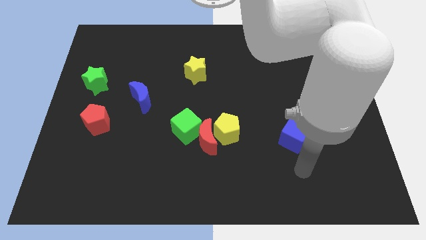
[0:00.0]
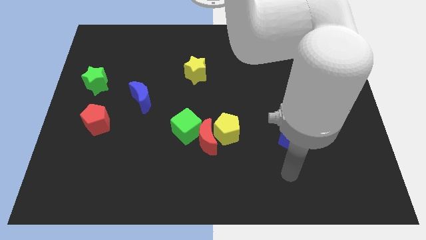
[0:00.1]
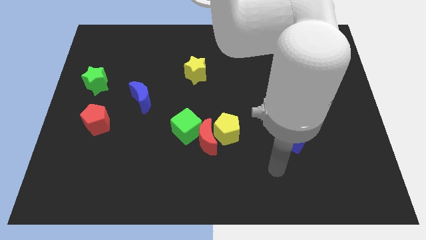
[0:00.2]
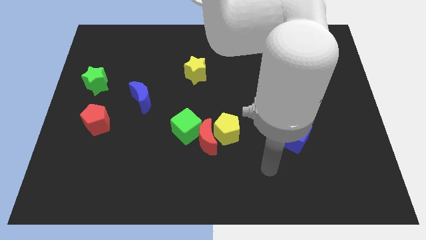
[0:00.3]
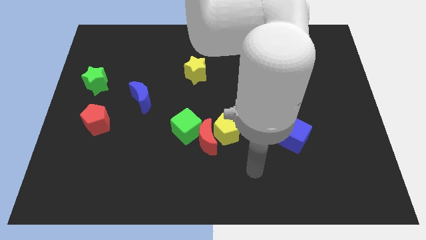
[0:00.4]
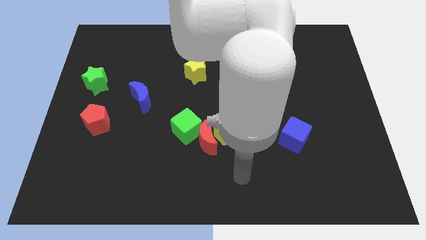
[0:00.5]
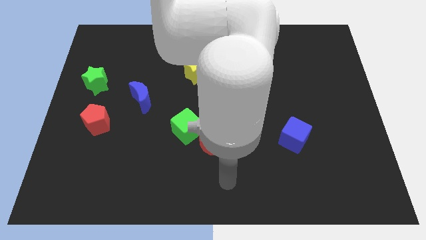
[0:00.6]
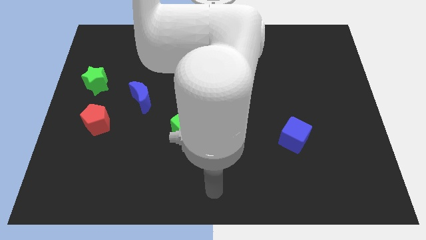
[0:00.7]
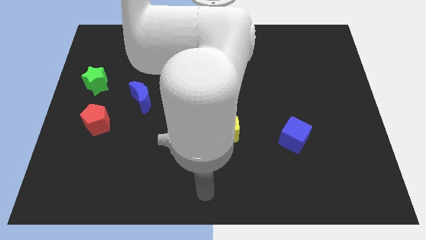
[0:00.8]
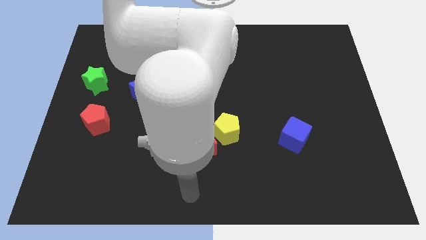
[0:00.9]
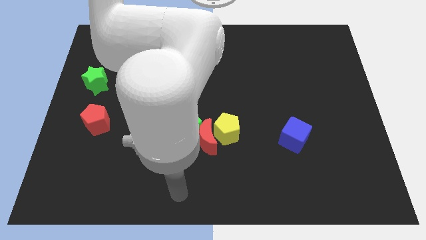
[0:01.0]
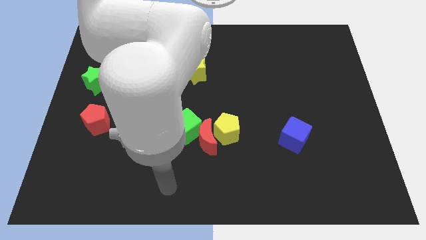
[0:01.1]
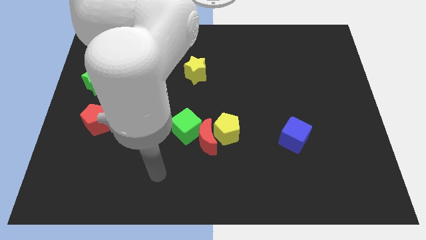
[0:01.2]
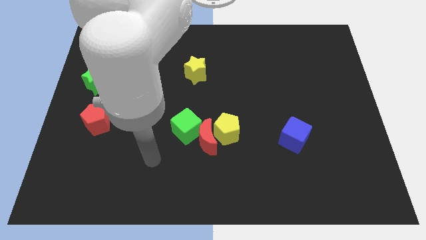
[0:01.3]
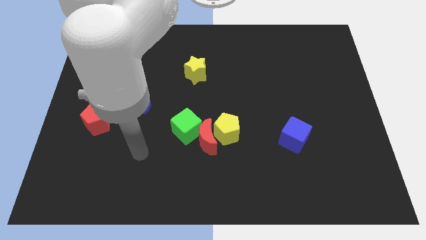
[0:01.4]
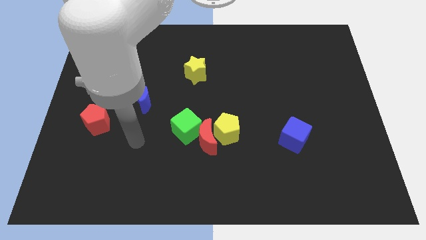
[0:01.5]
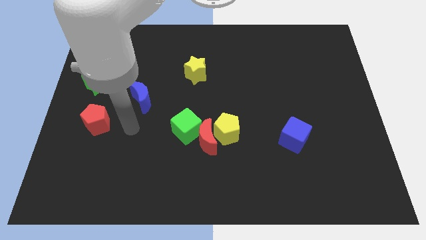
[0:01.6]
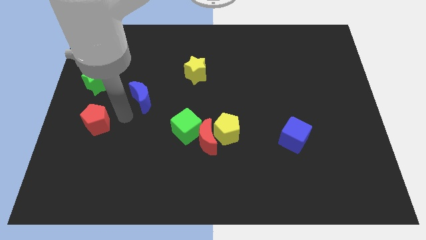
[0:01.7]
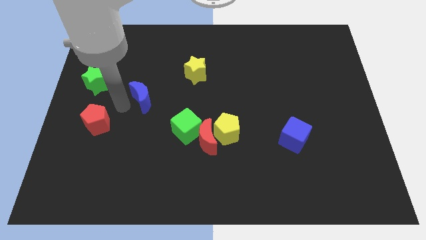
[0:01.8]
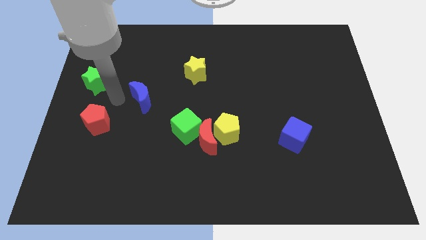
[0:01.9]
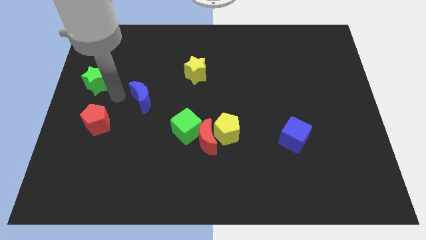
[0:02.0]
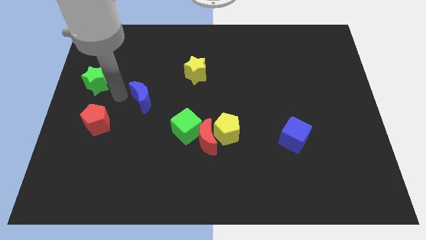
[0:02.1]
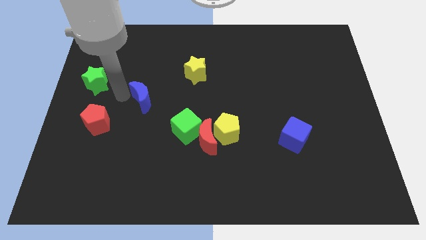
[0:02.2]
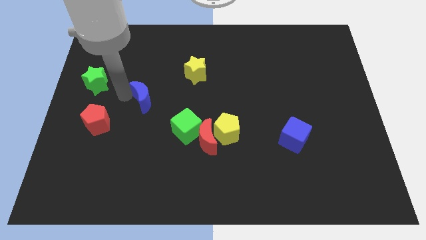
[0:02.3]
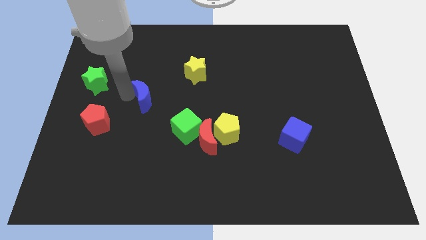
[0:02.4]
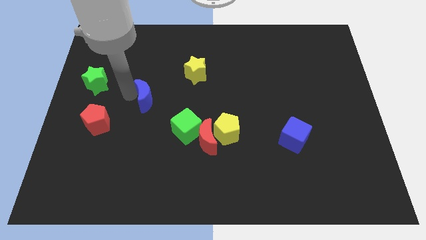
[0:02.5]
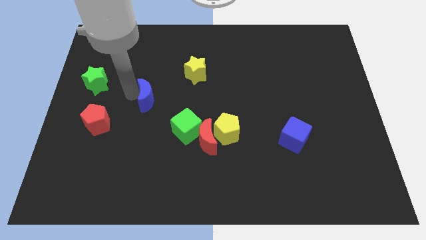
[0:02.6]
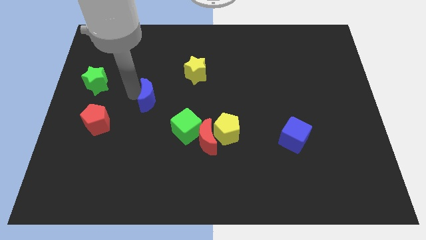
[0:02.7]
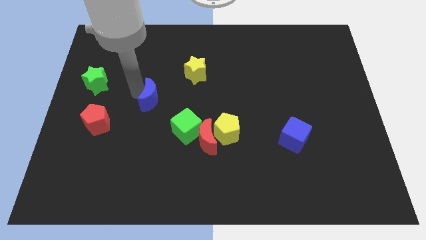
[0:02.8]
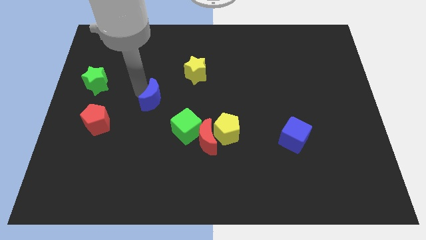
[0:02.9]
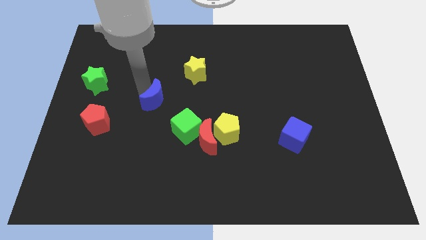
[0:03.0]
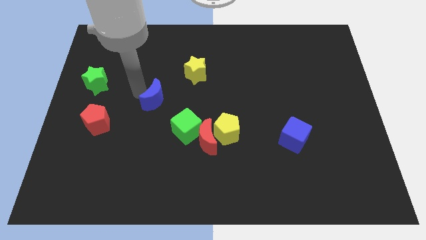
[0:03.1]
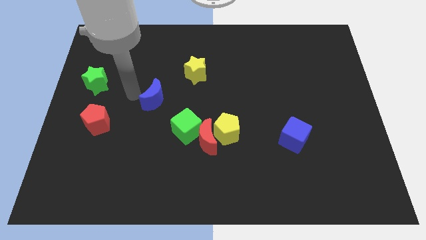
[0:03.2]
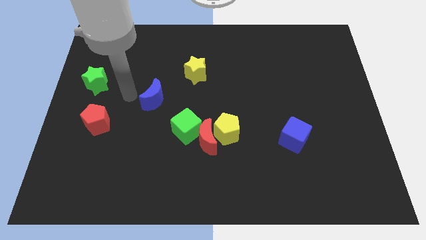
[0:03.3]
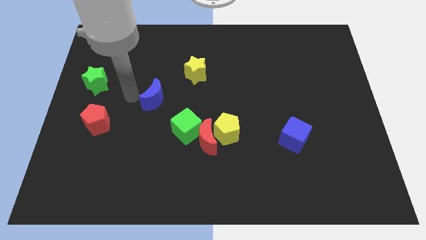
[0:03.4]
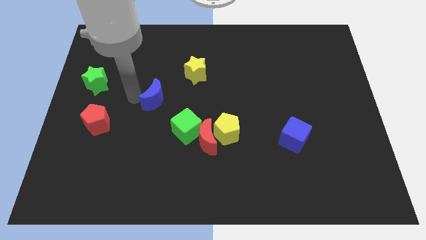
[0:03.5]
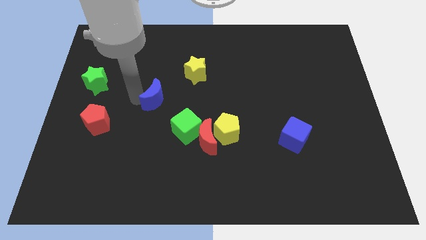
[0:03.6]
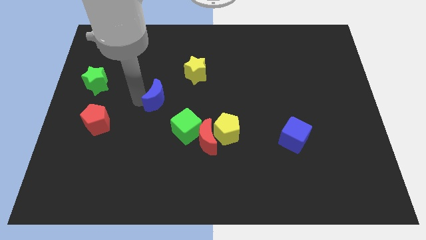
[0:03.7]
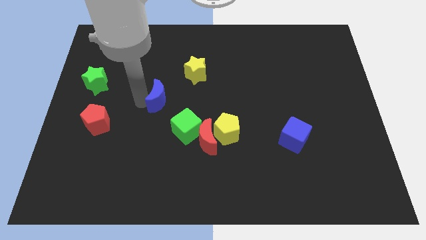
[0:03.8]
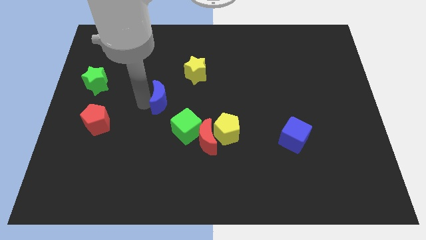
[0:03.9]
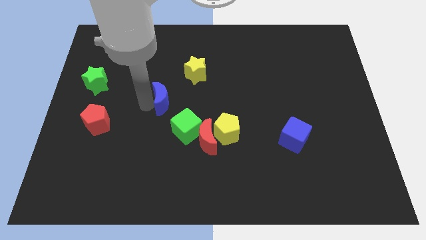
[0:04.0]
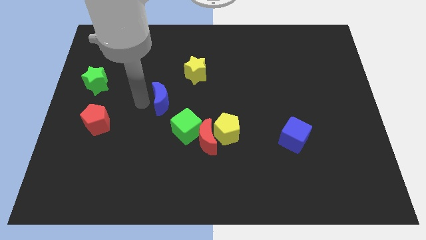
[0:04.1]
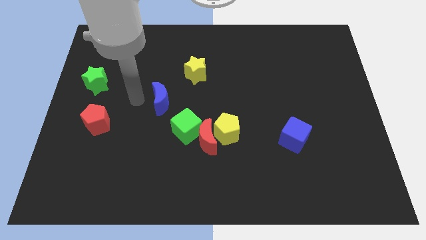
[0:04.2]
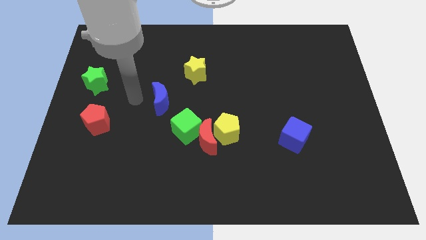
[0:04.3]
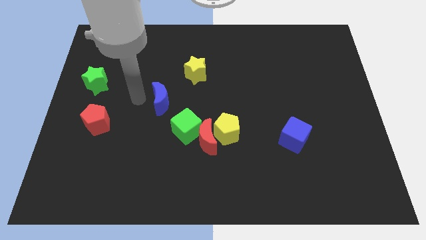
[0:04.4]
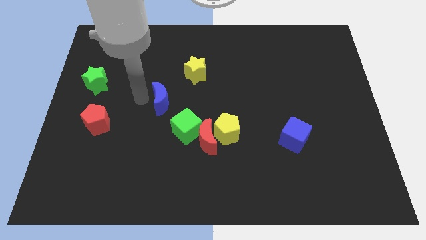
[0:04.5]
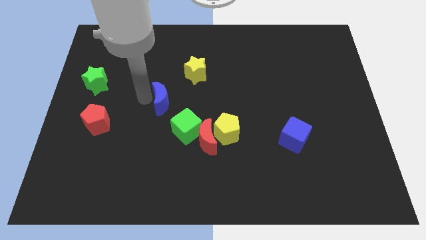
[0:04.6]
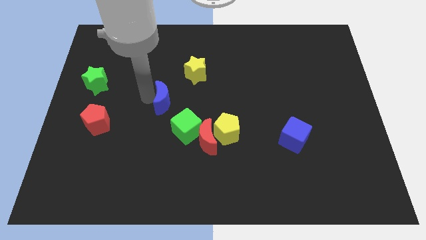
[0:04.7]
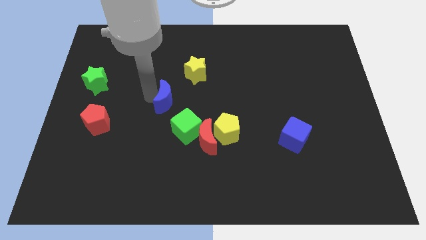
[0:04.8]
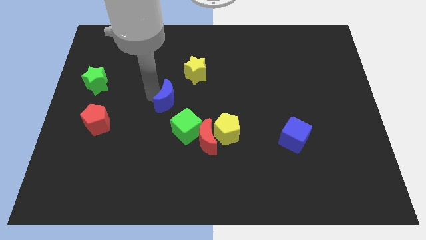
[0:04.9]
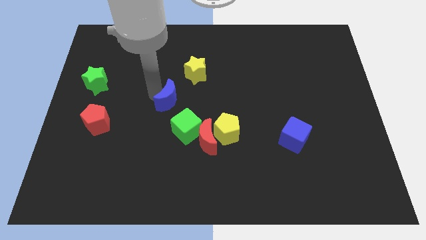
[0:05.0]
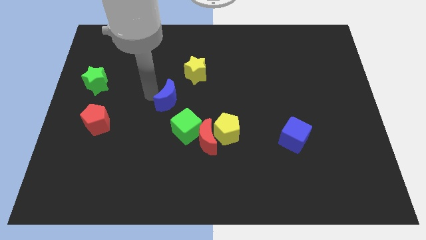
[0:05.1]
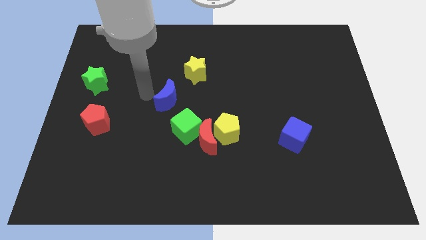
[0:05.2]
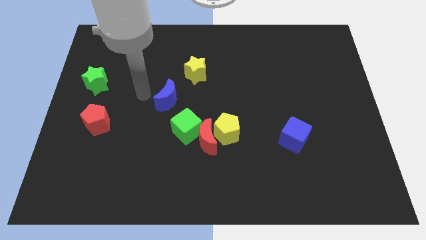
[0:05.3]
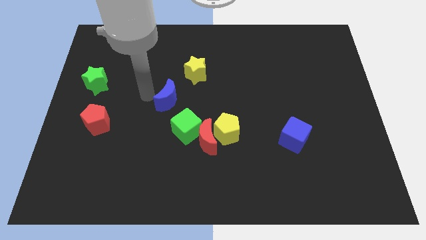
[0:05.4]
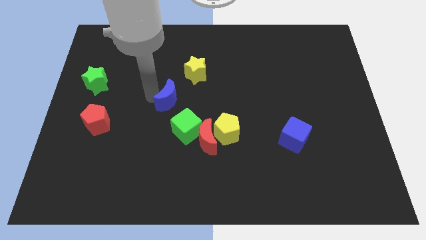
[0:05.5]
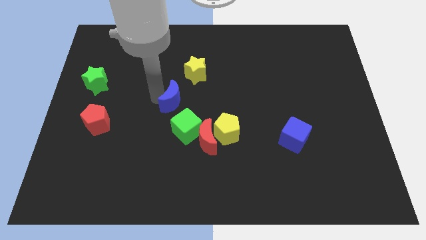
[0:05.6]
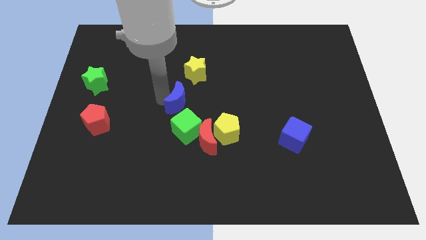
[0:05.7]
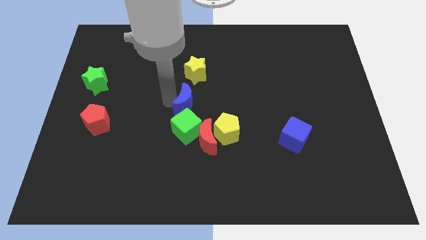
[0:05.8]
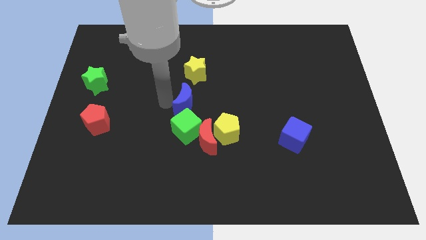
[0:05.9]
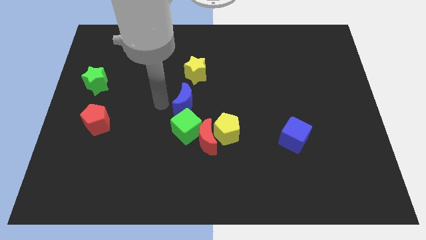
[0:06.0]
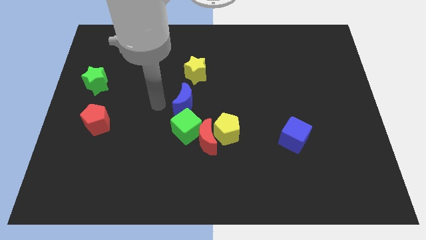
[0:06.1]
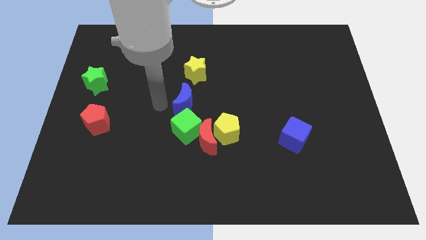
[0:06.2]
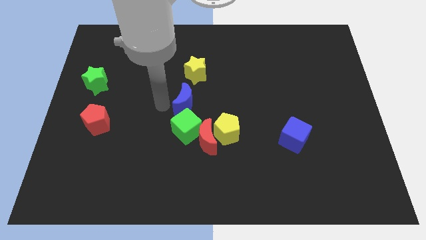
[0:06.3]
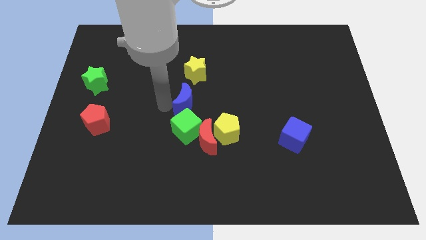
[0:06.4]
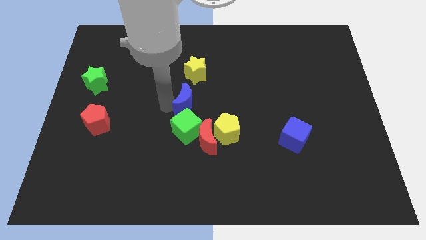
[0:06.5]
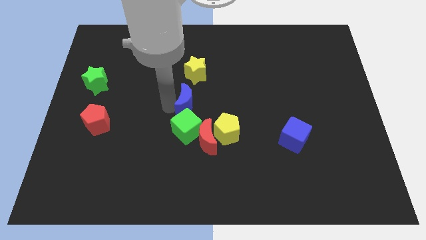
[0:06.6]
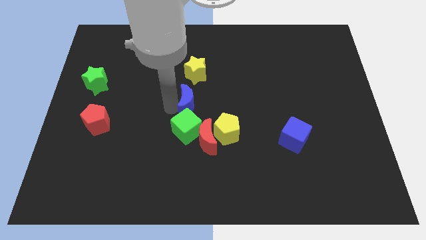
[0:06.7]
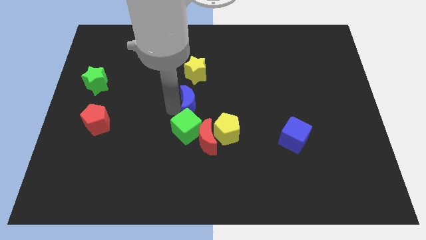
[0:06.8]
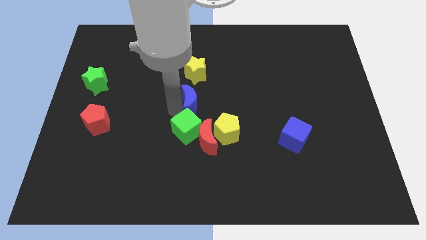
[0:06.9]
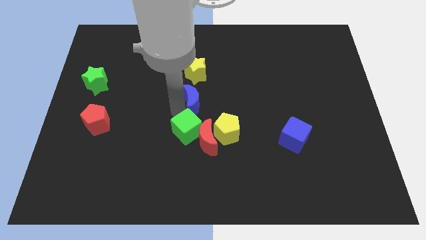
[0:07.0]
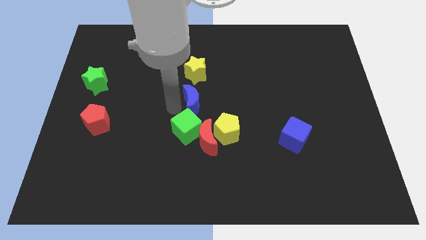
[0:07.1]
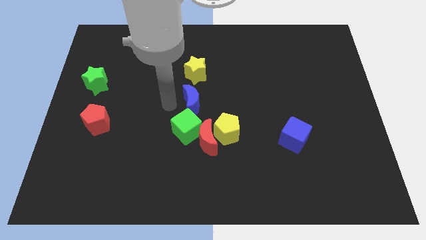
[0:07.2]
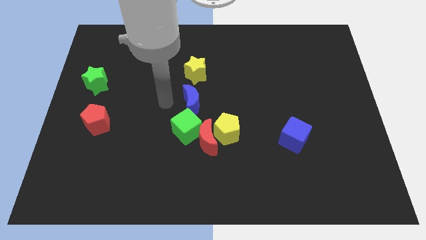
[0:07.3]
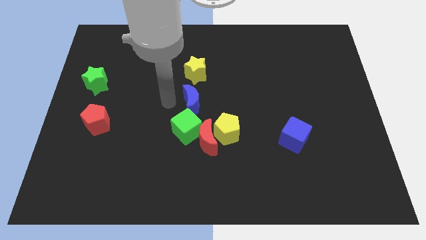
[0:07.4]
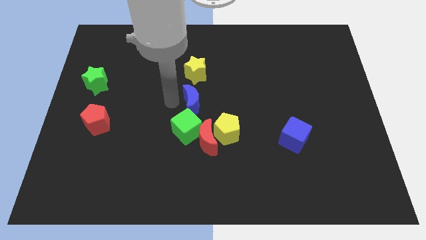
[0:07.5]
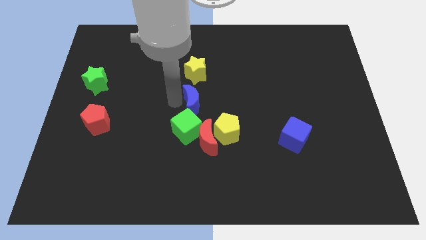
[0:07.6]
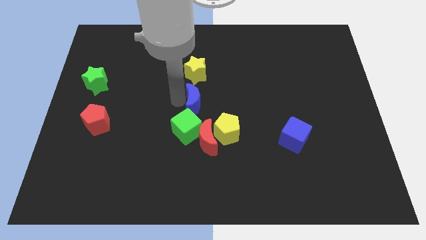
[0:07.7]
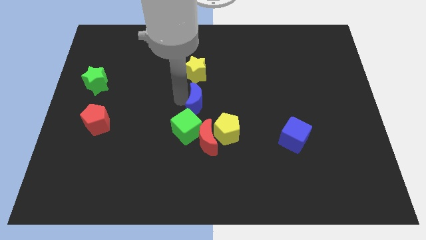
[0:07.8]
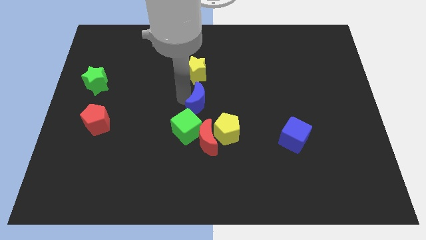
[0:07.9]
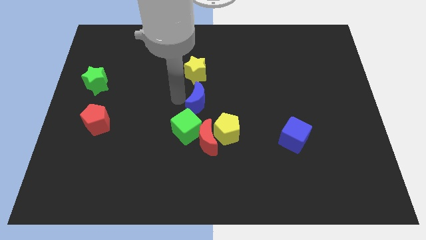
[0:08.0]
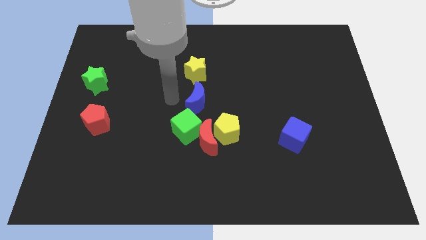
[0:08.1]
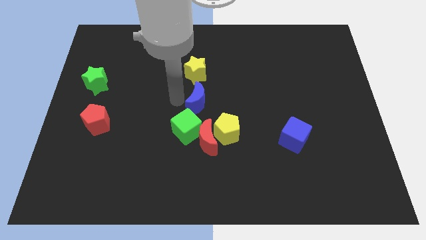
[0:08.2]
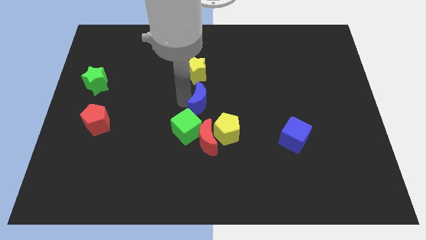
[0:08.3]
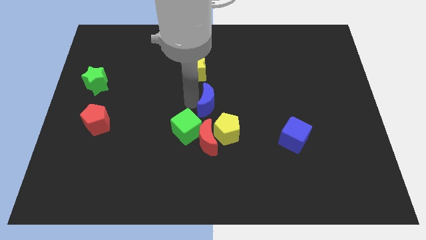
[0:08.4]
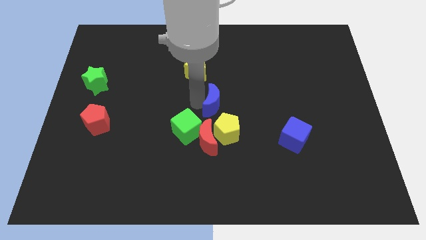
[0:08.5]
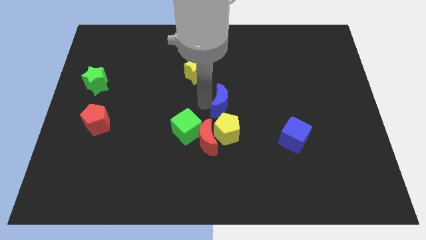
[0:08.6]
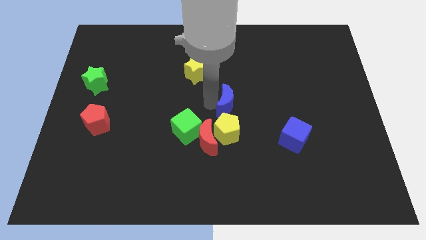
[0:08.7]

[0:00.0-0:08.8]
move the blue moon right
